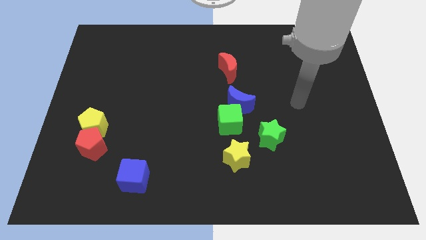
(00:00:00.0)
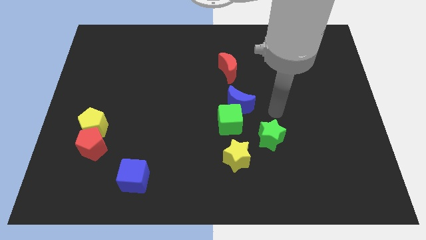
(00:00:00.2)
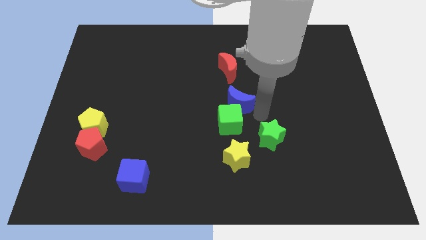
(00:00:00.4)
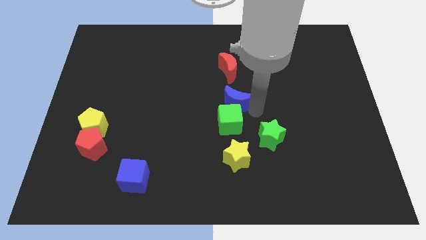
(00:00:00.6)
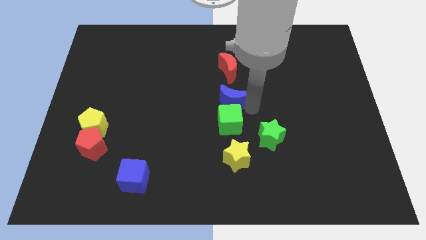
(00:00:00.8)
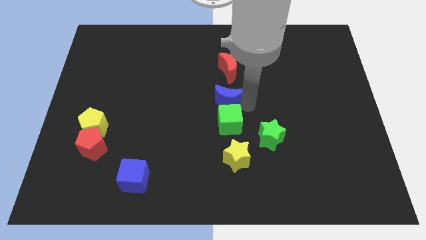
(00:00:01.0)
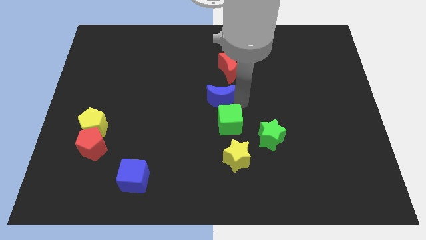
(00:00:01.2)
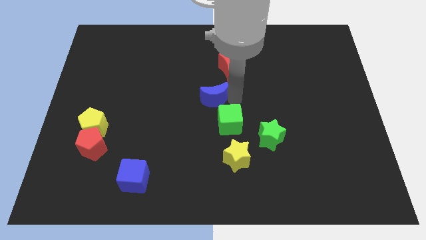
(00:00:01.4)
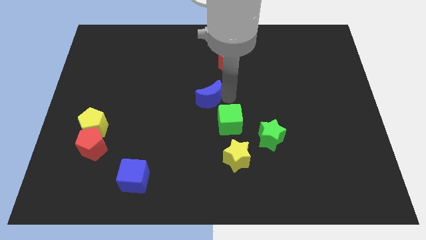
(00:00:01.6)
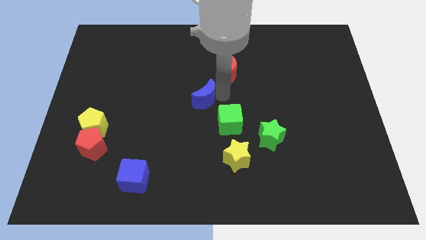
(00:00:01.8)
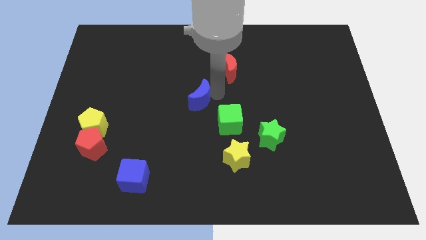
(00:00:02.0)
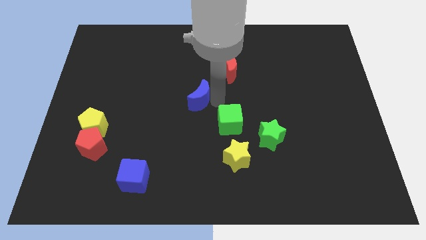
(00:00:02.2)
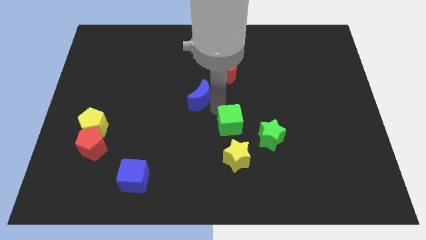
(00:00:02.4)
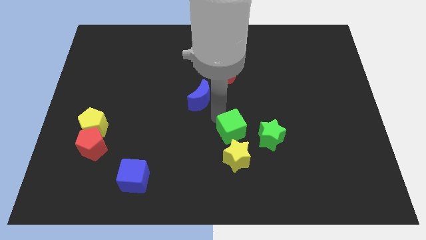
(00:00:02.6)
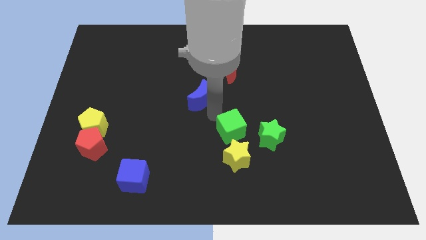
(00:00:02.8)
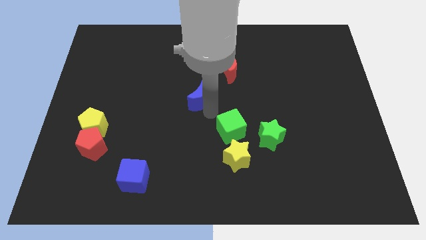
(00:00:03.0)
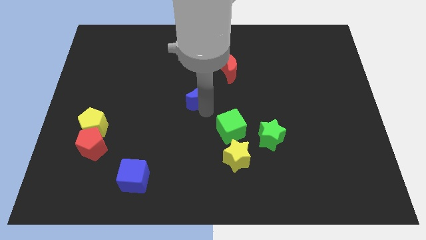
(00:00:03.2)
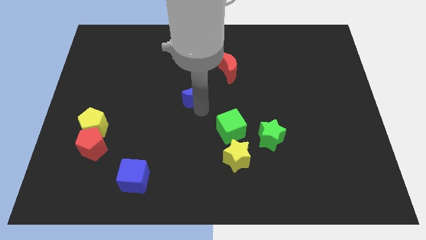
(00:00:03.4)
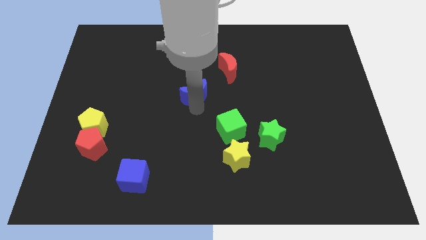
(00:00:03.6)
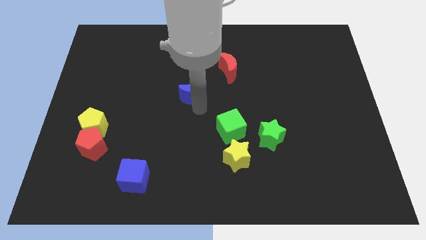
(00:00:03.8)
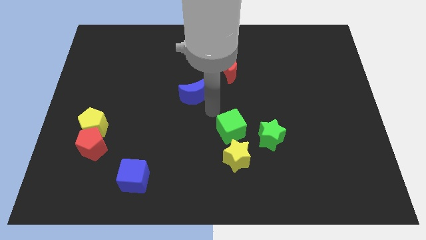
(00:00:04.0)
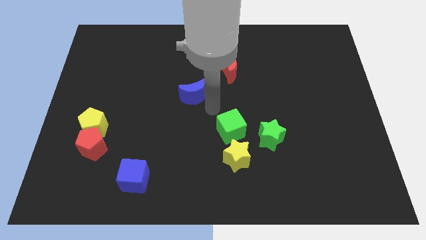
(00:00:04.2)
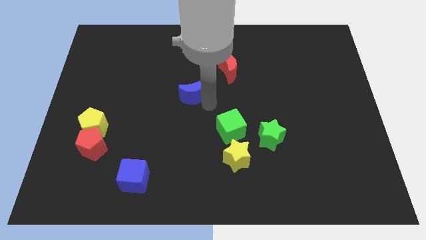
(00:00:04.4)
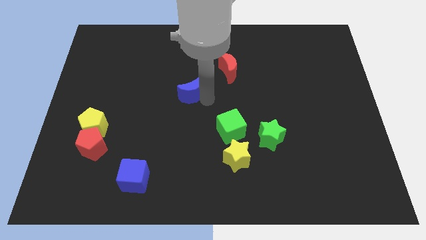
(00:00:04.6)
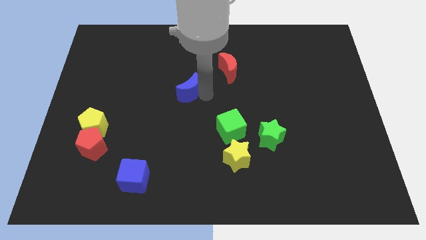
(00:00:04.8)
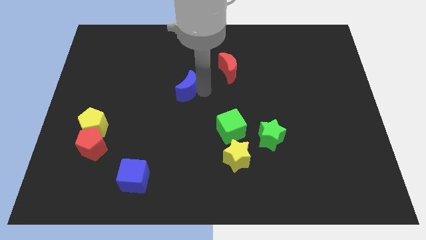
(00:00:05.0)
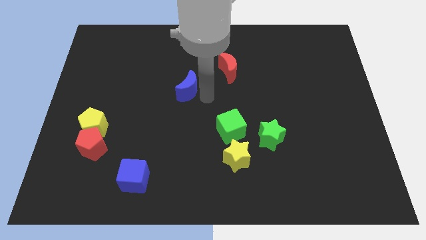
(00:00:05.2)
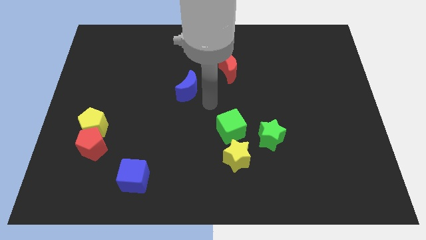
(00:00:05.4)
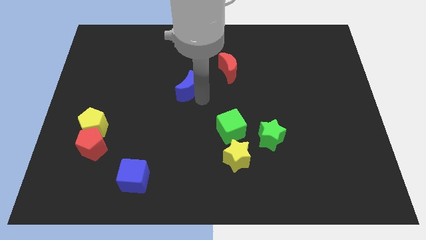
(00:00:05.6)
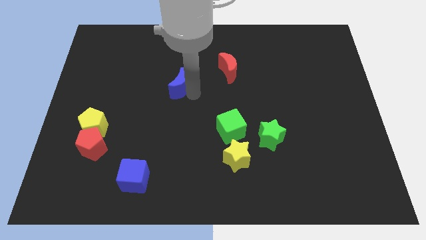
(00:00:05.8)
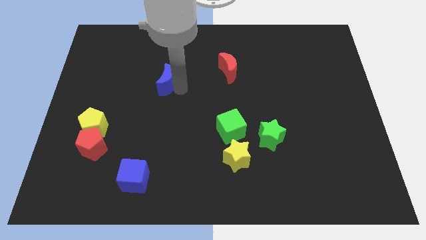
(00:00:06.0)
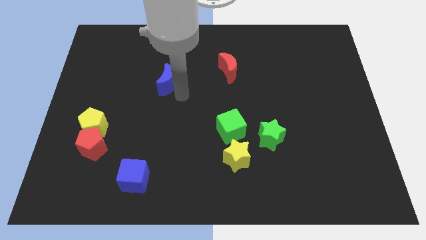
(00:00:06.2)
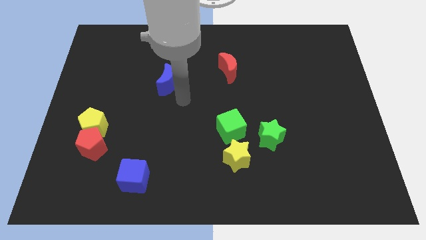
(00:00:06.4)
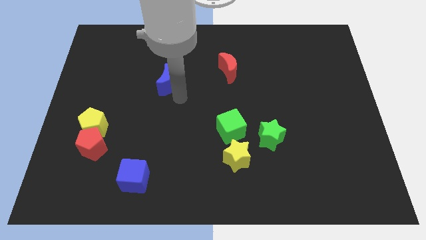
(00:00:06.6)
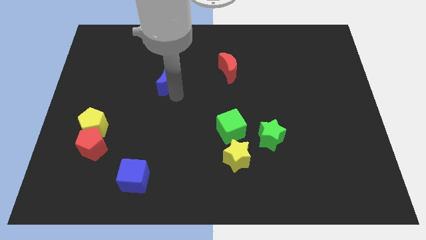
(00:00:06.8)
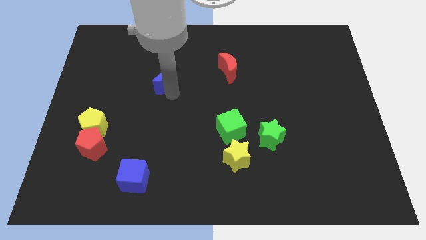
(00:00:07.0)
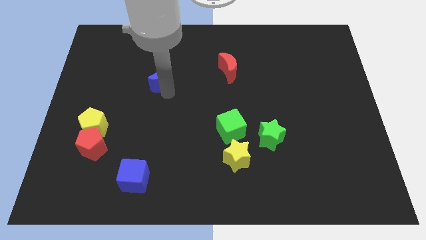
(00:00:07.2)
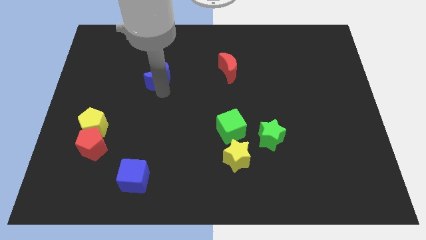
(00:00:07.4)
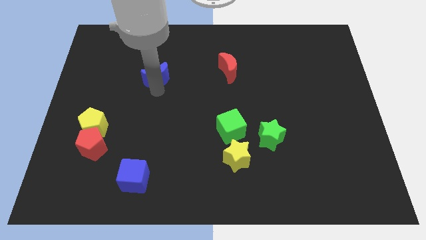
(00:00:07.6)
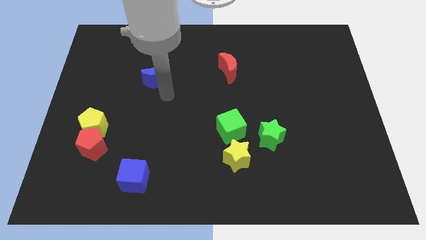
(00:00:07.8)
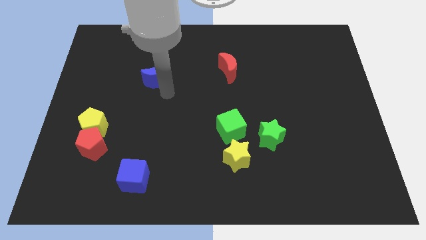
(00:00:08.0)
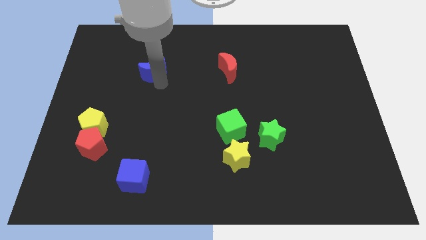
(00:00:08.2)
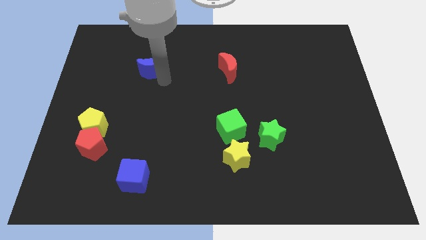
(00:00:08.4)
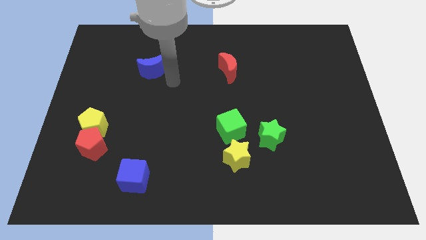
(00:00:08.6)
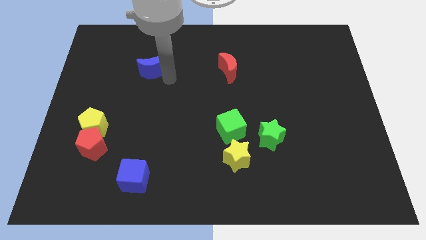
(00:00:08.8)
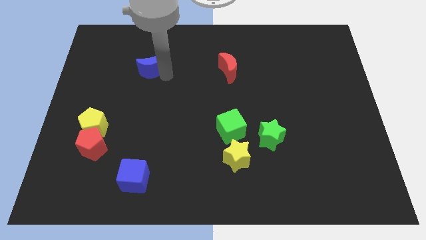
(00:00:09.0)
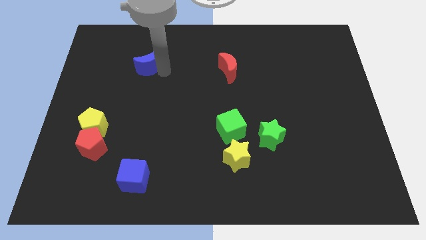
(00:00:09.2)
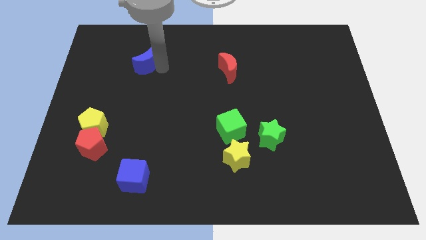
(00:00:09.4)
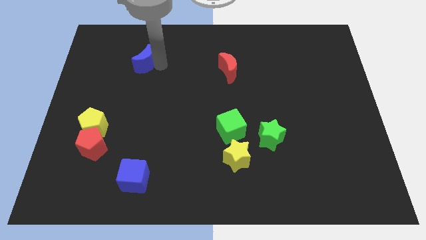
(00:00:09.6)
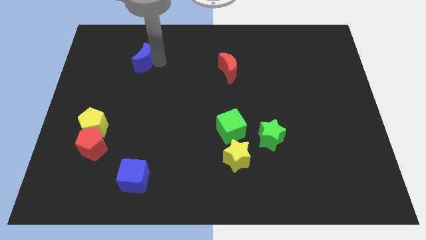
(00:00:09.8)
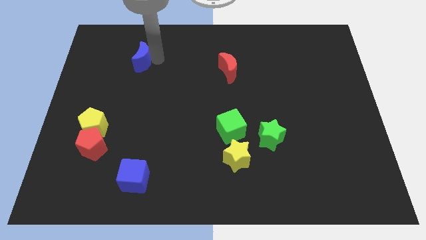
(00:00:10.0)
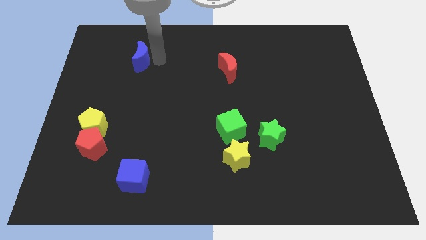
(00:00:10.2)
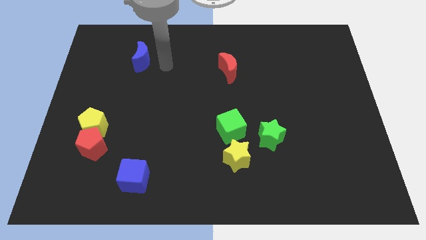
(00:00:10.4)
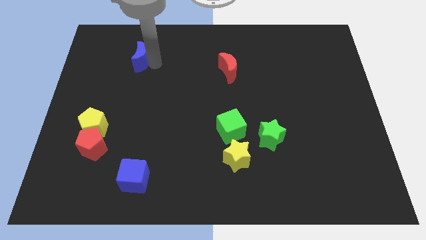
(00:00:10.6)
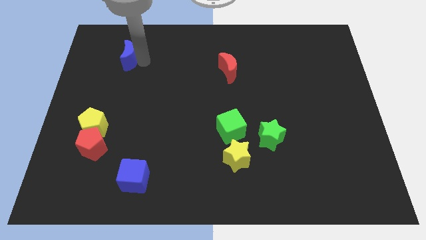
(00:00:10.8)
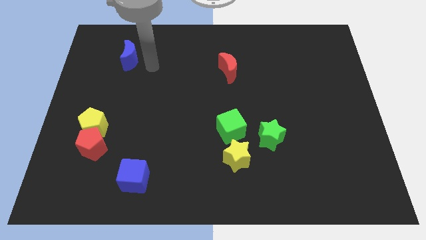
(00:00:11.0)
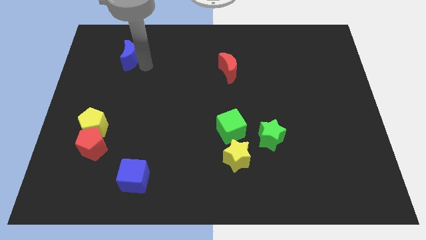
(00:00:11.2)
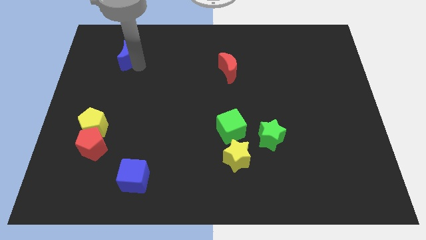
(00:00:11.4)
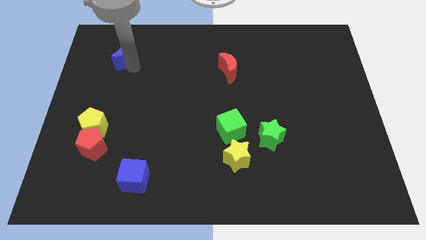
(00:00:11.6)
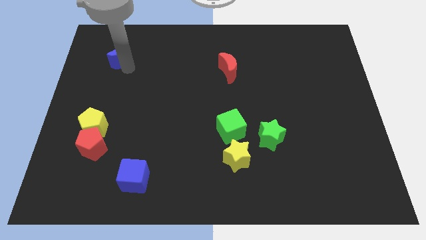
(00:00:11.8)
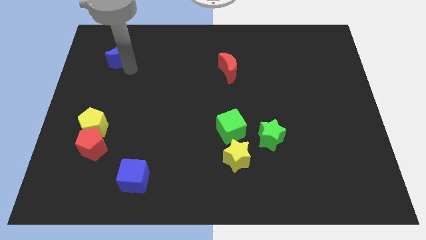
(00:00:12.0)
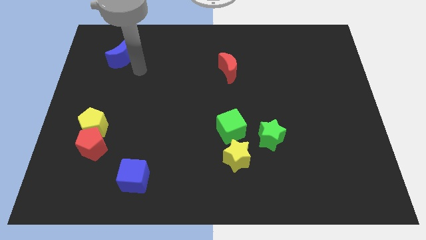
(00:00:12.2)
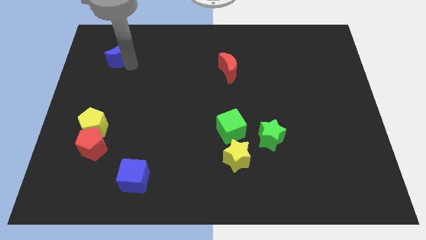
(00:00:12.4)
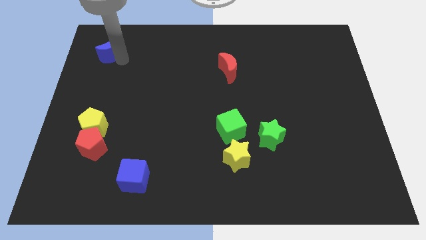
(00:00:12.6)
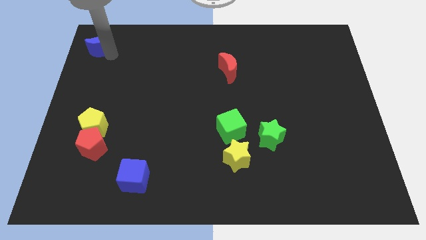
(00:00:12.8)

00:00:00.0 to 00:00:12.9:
slide the blue moon to the top left of the board
